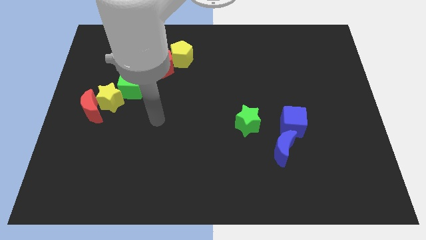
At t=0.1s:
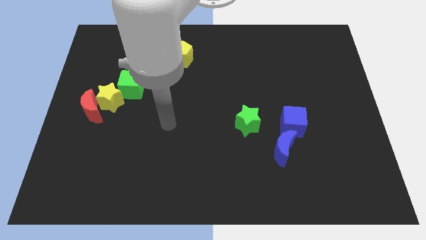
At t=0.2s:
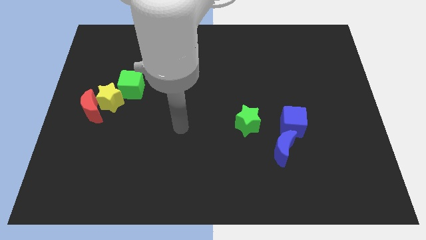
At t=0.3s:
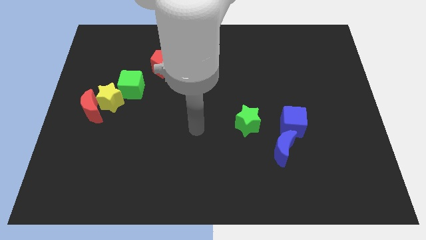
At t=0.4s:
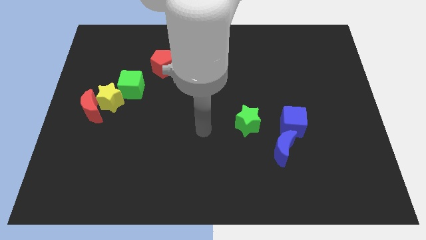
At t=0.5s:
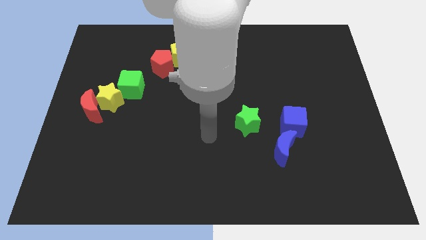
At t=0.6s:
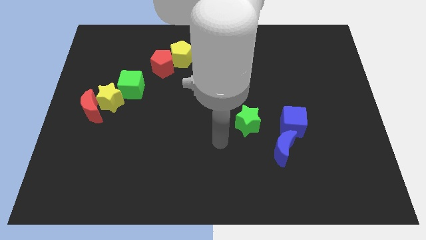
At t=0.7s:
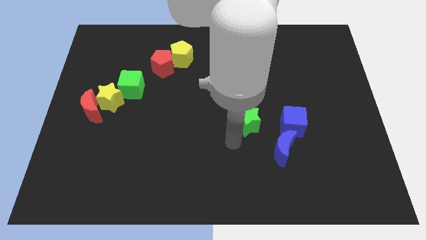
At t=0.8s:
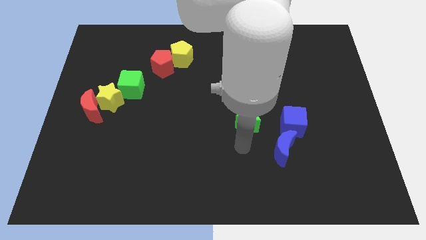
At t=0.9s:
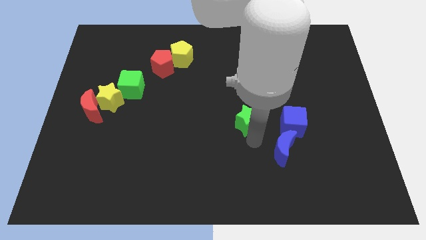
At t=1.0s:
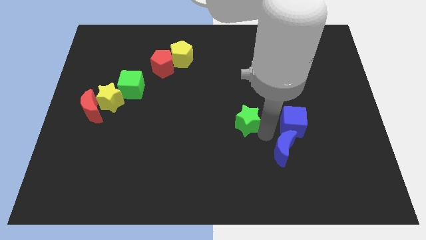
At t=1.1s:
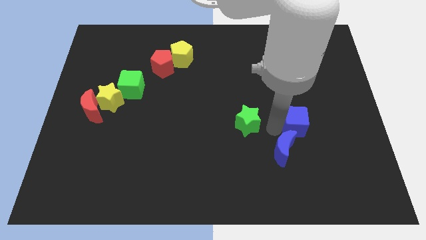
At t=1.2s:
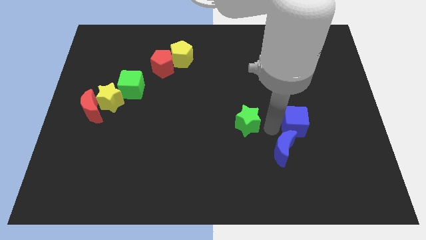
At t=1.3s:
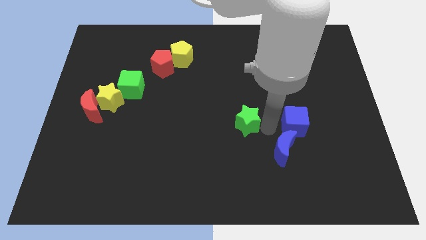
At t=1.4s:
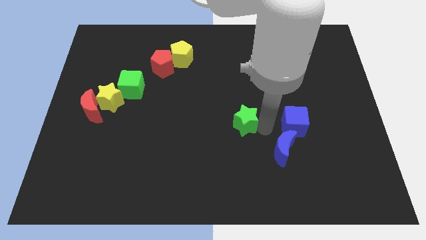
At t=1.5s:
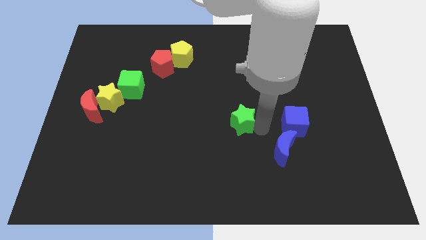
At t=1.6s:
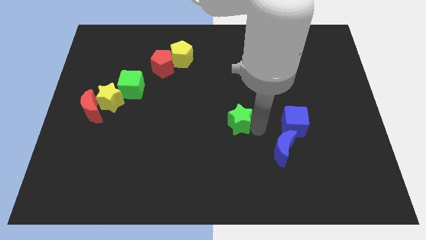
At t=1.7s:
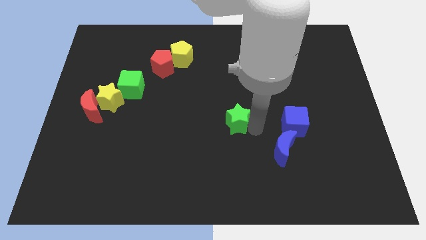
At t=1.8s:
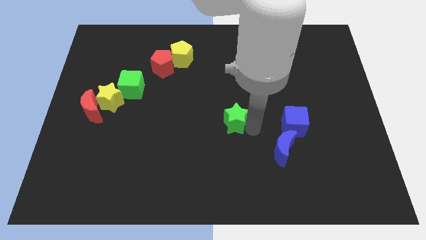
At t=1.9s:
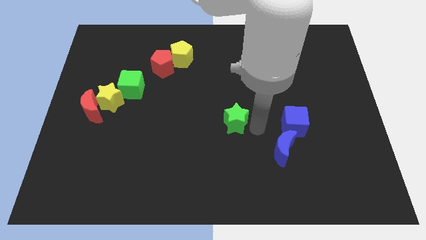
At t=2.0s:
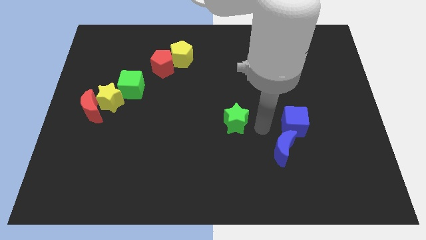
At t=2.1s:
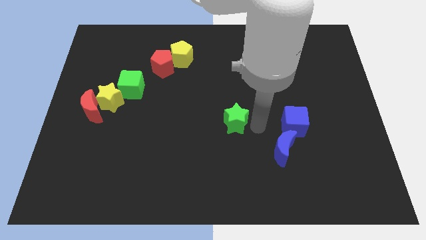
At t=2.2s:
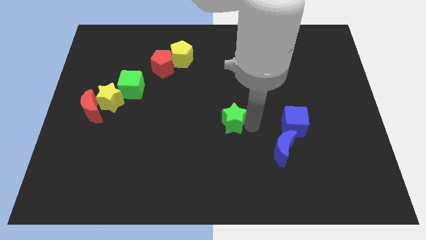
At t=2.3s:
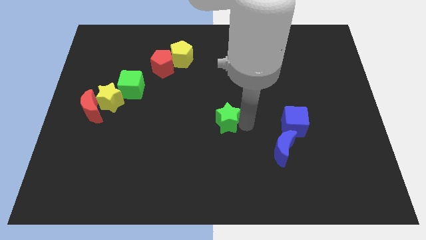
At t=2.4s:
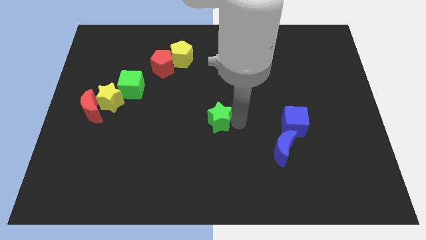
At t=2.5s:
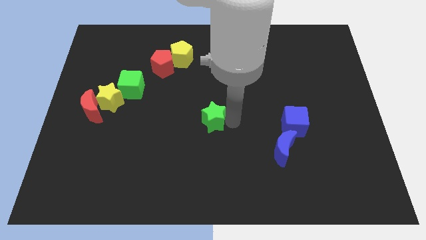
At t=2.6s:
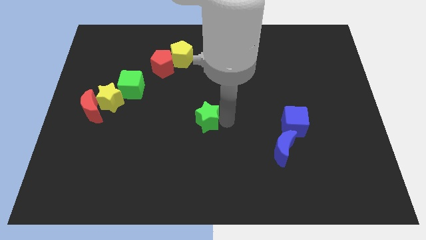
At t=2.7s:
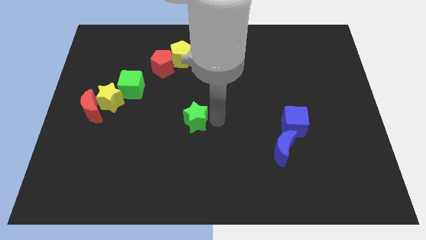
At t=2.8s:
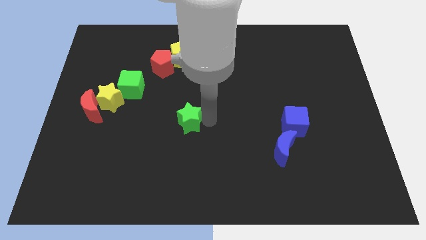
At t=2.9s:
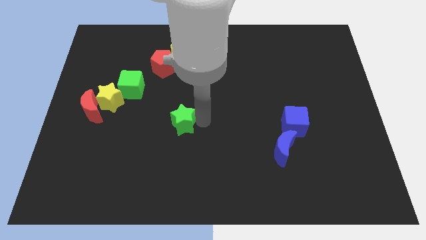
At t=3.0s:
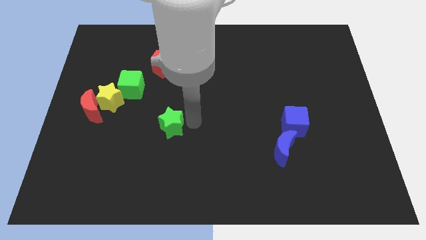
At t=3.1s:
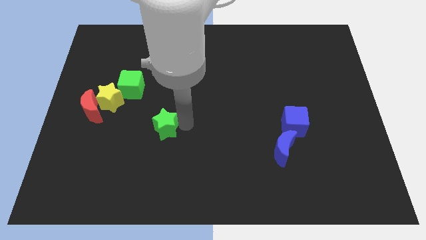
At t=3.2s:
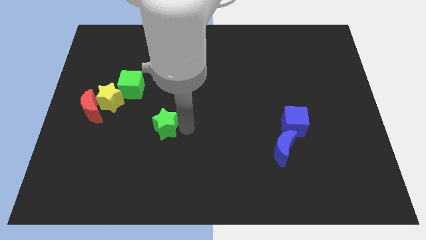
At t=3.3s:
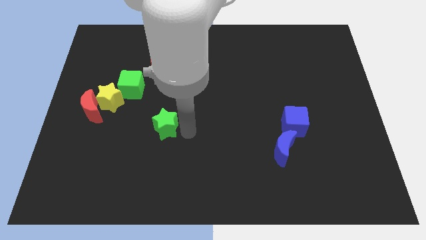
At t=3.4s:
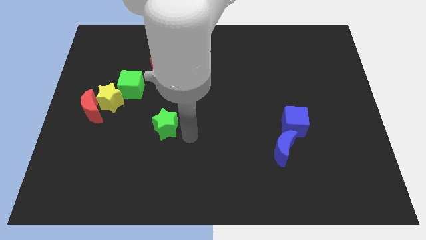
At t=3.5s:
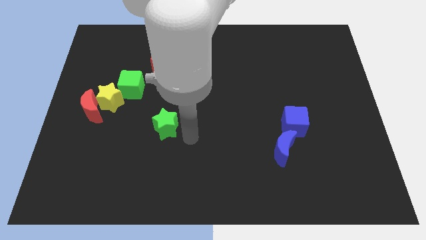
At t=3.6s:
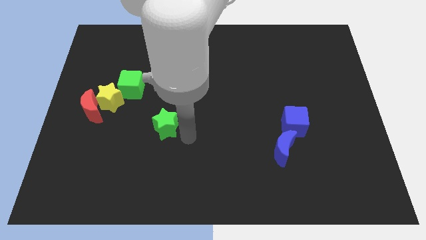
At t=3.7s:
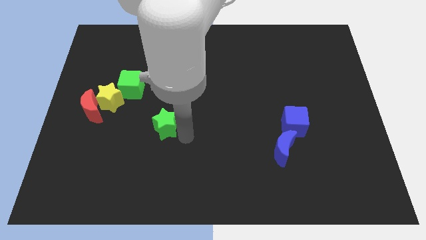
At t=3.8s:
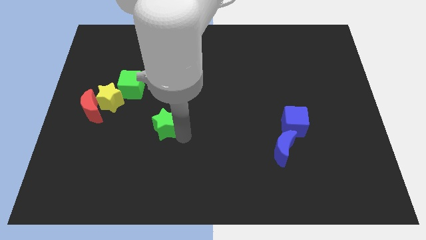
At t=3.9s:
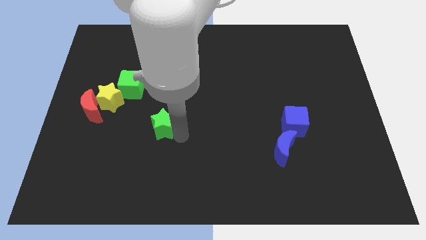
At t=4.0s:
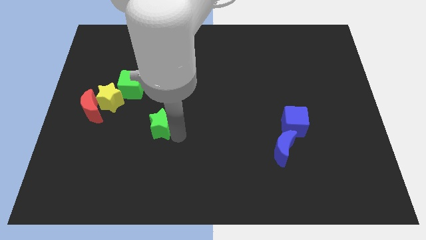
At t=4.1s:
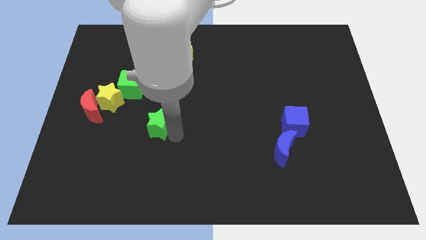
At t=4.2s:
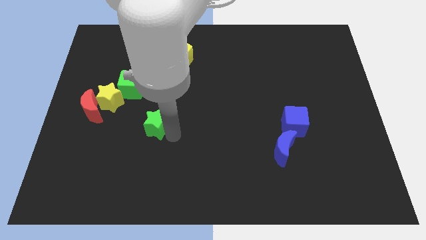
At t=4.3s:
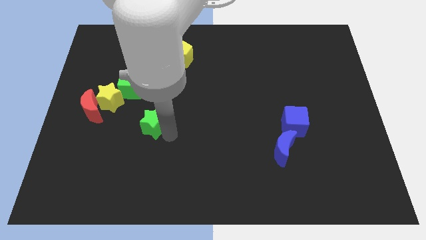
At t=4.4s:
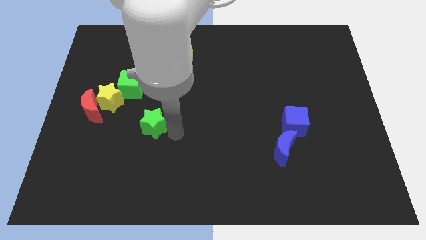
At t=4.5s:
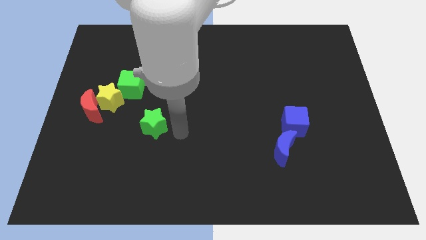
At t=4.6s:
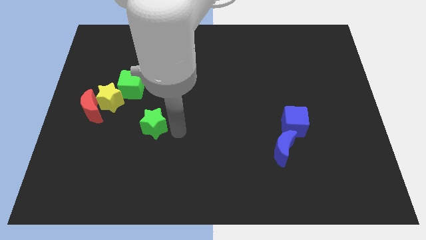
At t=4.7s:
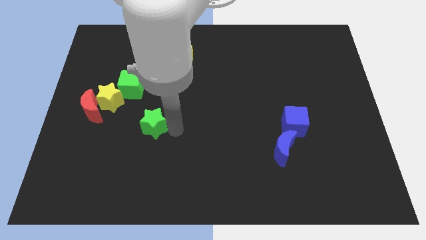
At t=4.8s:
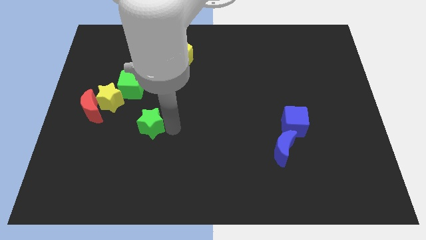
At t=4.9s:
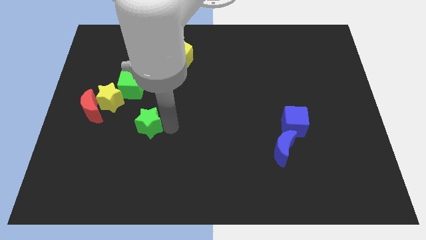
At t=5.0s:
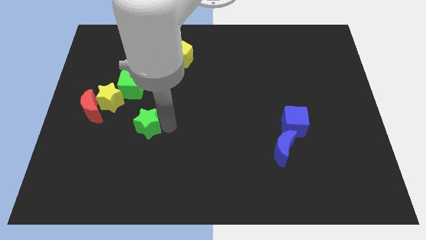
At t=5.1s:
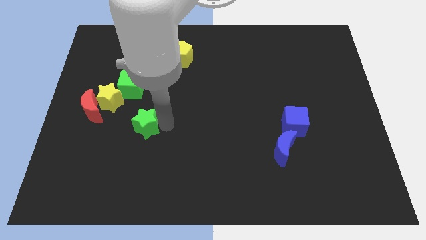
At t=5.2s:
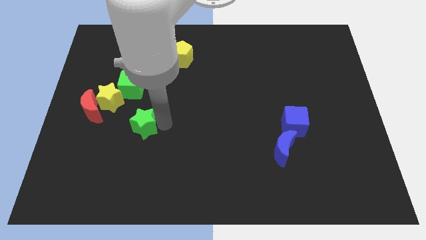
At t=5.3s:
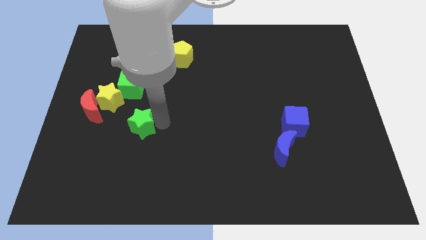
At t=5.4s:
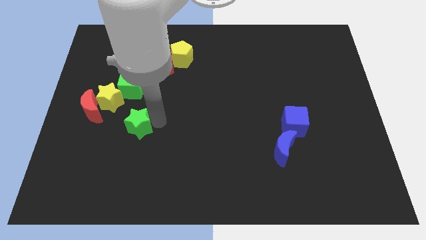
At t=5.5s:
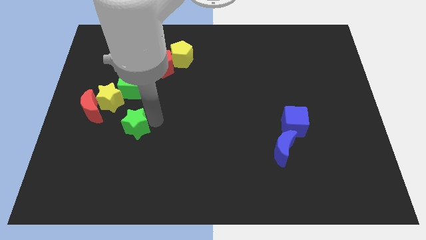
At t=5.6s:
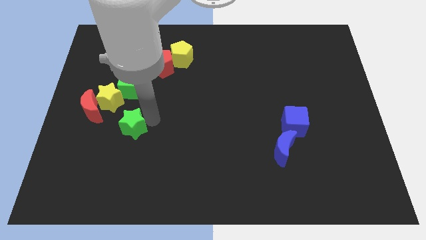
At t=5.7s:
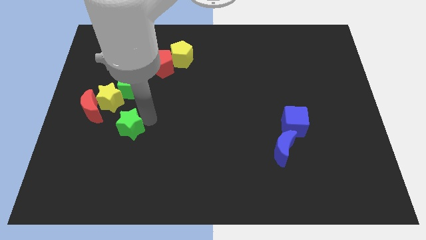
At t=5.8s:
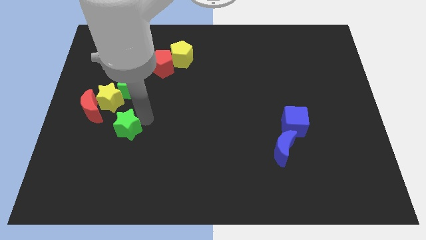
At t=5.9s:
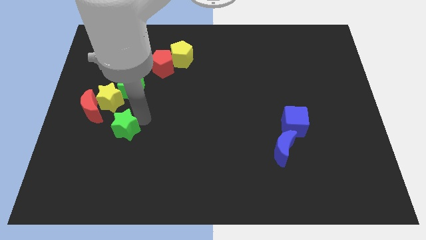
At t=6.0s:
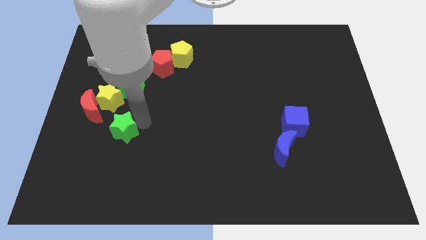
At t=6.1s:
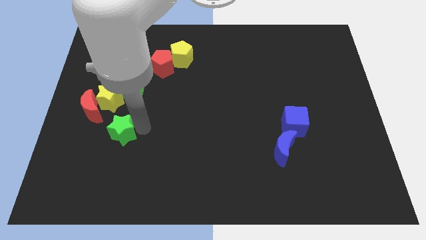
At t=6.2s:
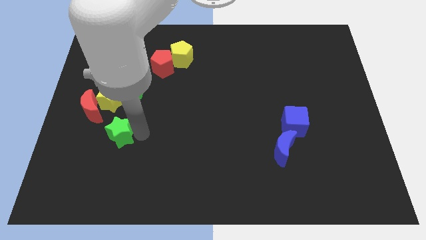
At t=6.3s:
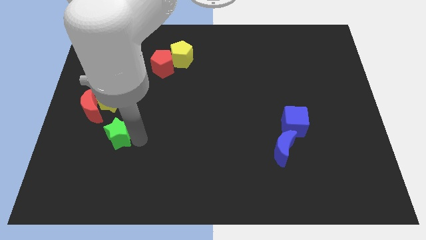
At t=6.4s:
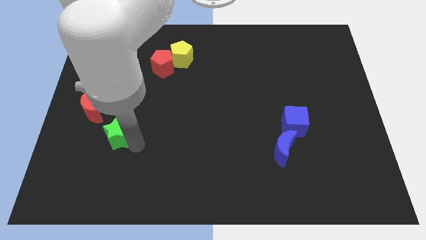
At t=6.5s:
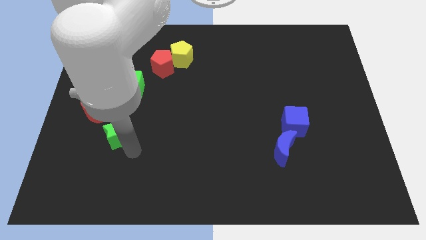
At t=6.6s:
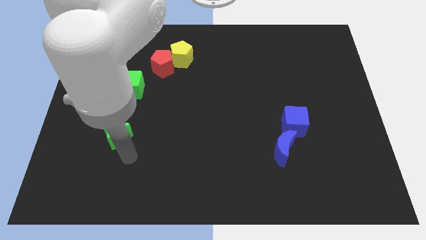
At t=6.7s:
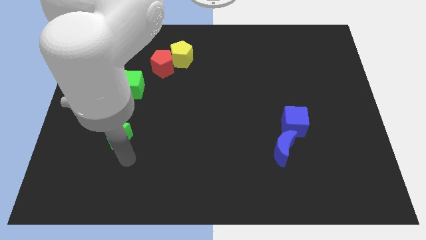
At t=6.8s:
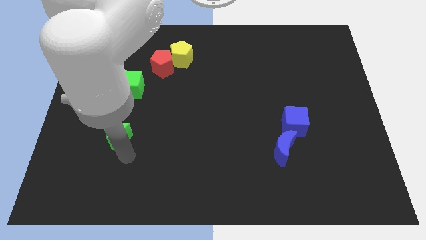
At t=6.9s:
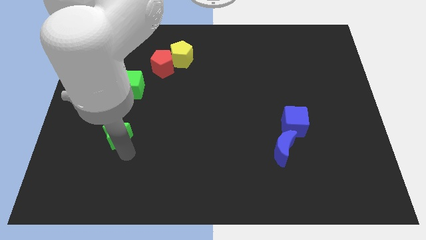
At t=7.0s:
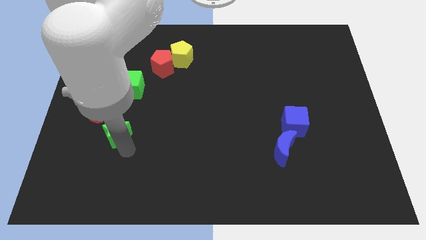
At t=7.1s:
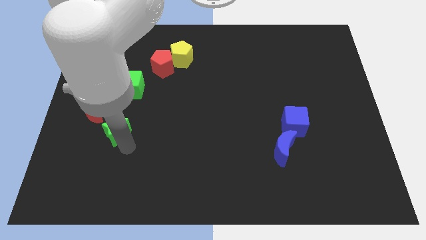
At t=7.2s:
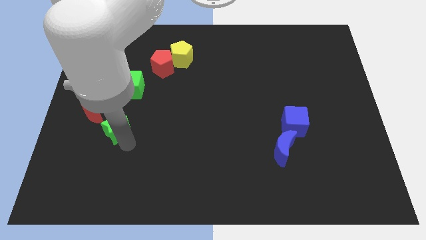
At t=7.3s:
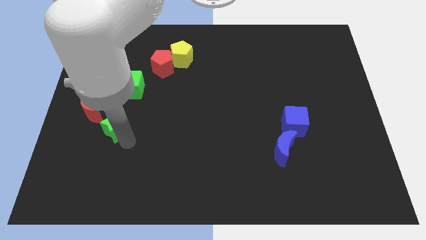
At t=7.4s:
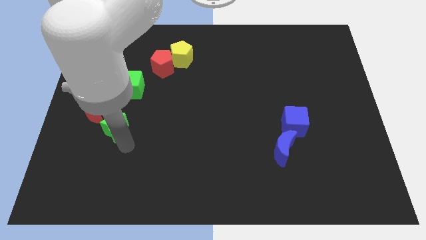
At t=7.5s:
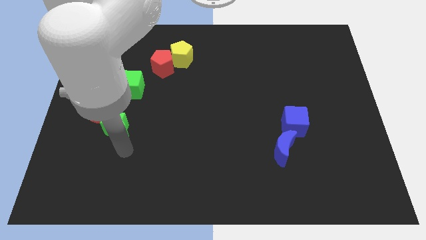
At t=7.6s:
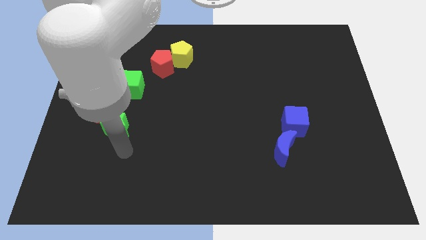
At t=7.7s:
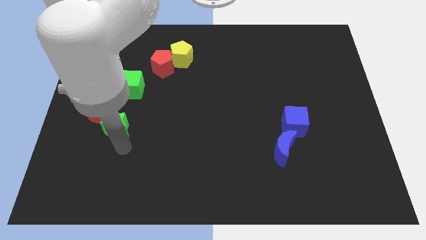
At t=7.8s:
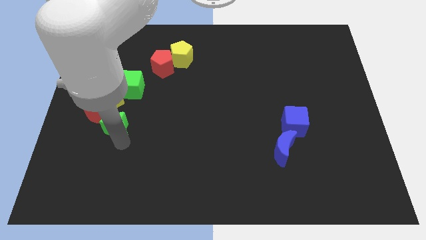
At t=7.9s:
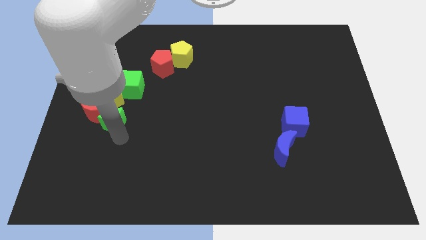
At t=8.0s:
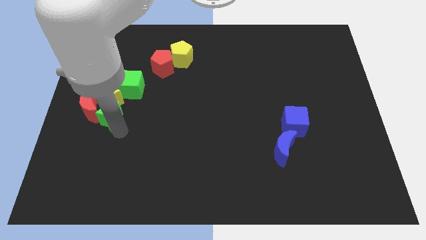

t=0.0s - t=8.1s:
push the green star to the red moon
